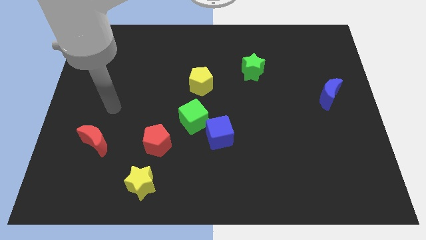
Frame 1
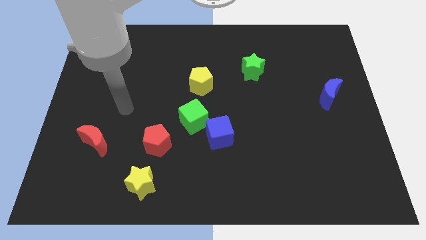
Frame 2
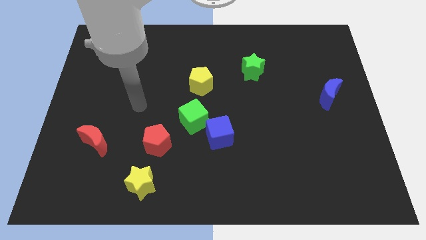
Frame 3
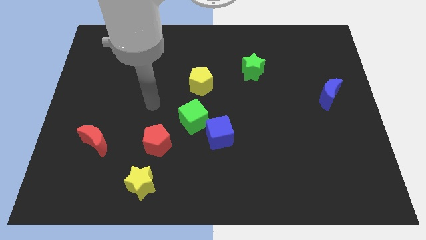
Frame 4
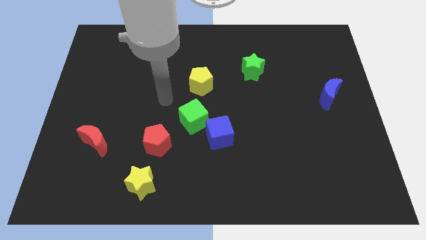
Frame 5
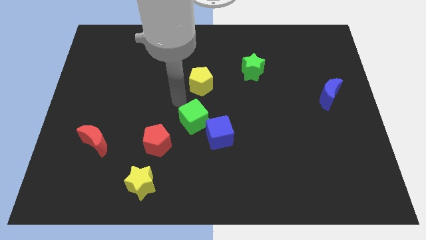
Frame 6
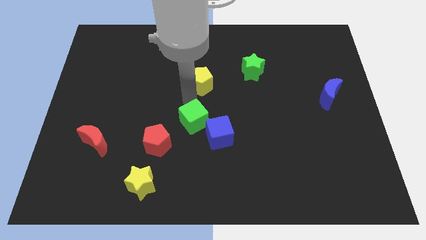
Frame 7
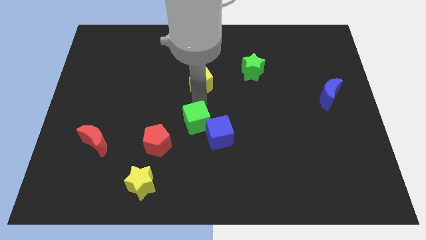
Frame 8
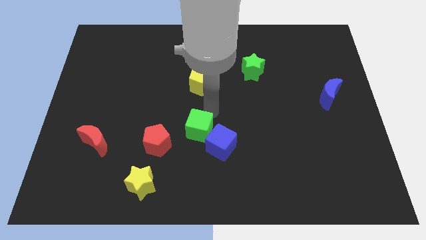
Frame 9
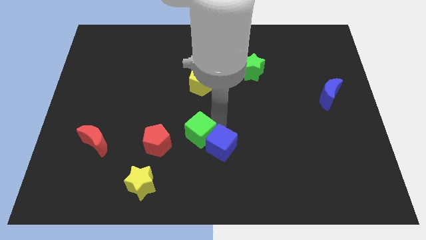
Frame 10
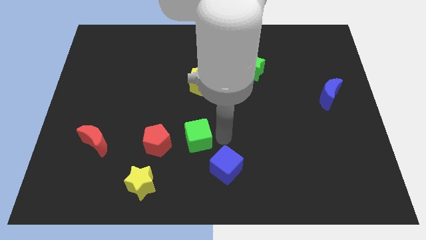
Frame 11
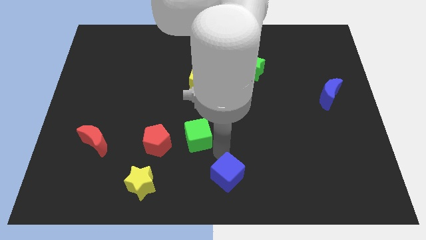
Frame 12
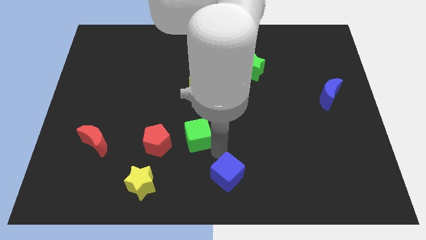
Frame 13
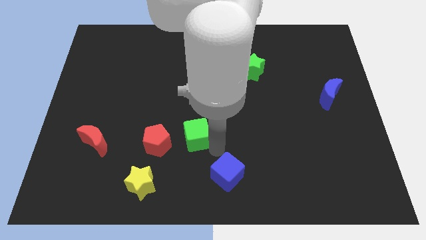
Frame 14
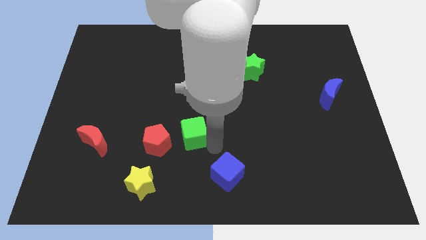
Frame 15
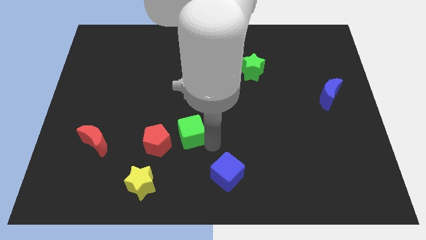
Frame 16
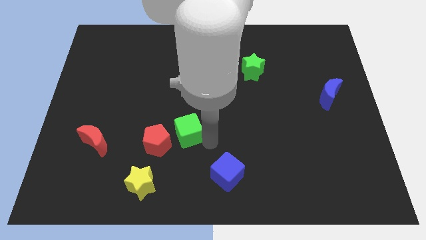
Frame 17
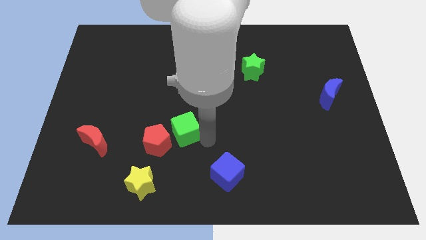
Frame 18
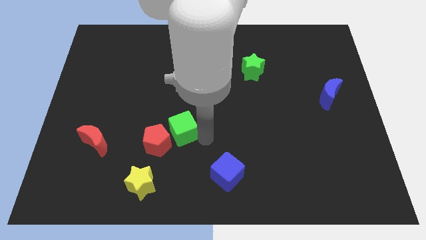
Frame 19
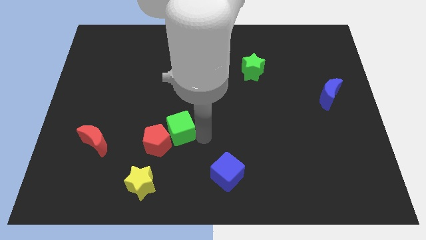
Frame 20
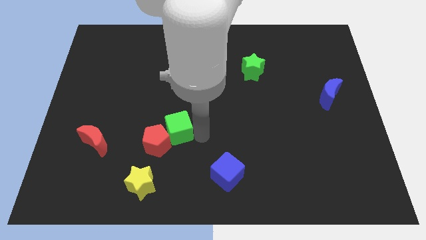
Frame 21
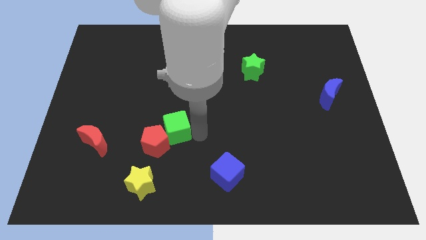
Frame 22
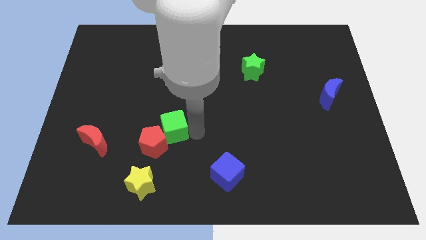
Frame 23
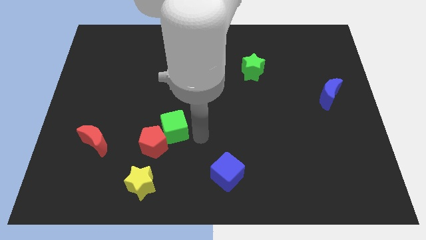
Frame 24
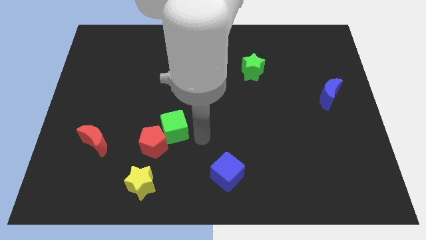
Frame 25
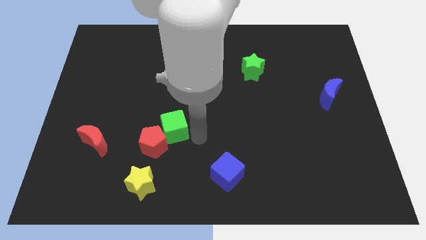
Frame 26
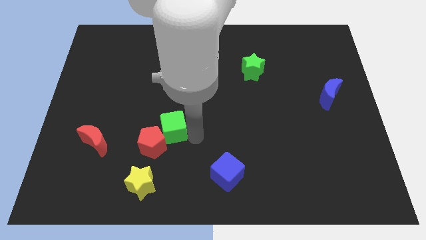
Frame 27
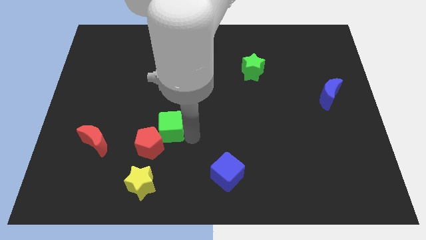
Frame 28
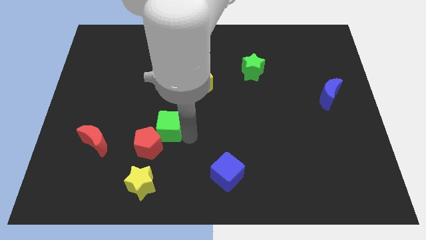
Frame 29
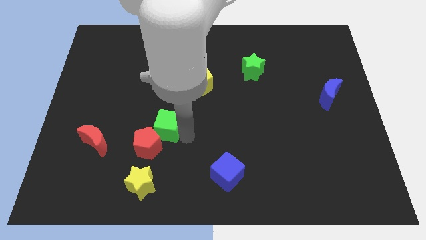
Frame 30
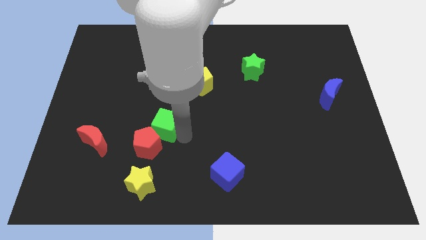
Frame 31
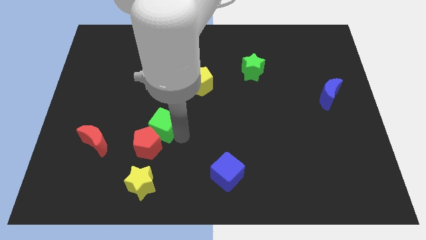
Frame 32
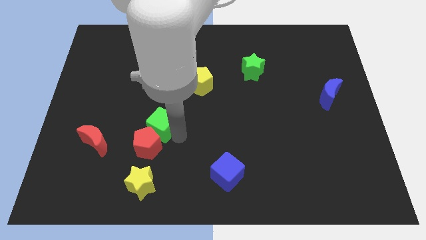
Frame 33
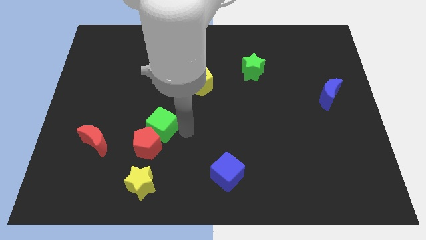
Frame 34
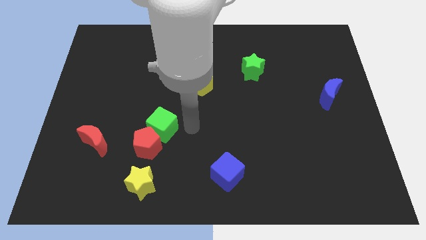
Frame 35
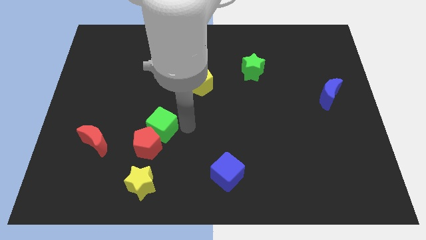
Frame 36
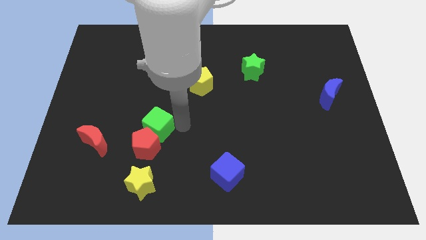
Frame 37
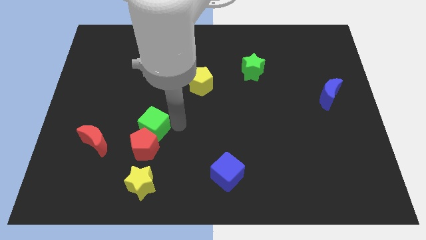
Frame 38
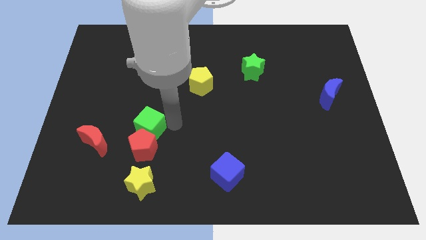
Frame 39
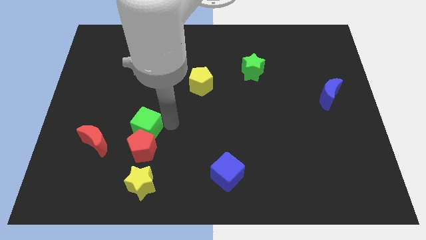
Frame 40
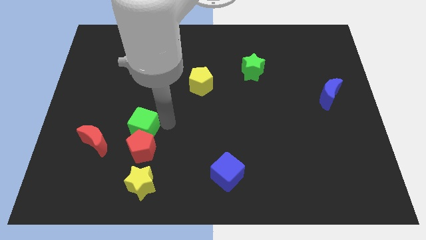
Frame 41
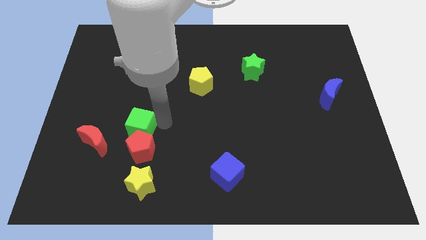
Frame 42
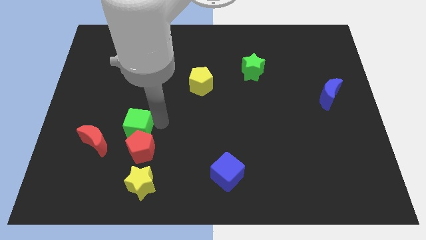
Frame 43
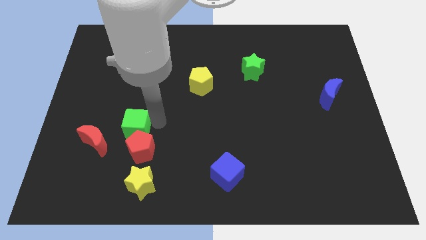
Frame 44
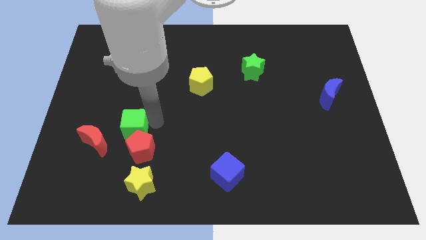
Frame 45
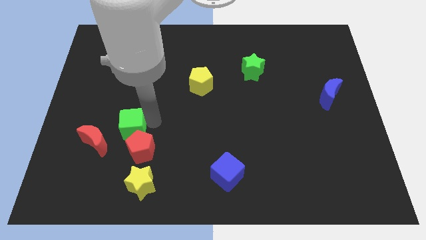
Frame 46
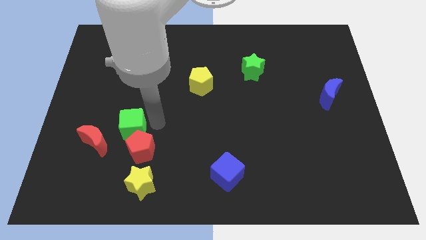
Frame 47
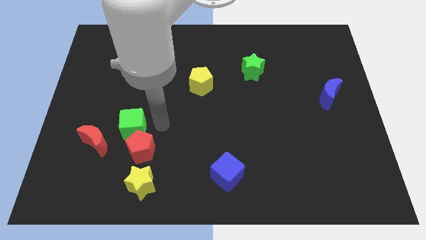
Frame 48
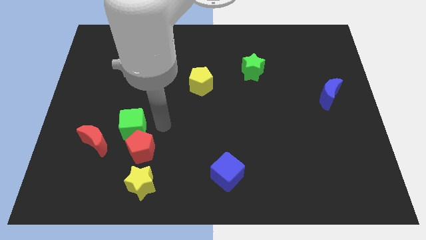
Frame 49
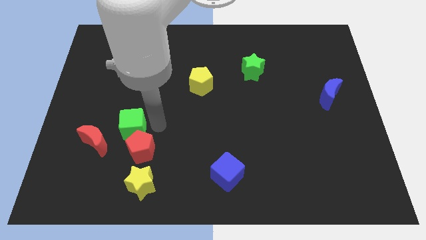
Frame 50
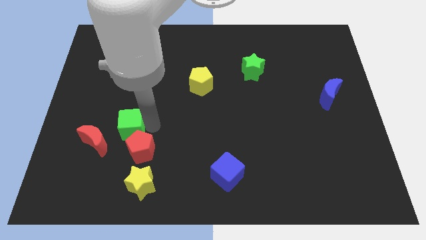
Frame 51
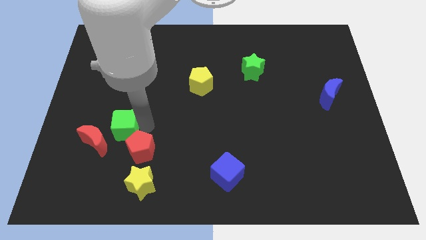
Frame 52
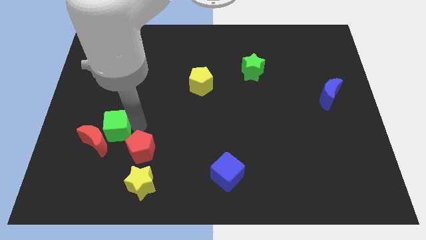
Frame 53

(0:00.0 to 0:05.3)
put the green cube towards the red moon

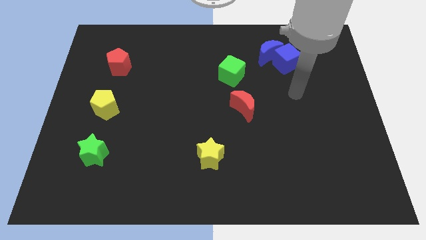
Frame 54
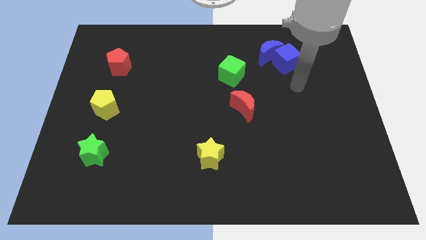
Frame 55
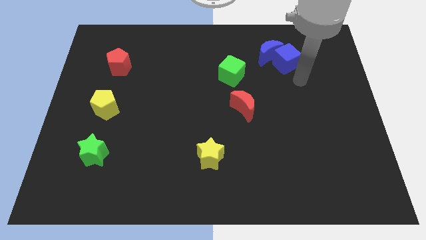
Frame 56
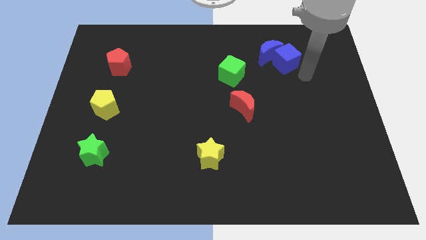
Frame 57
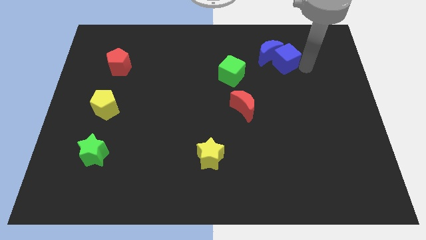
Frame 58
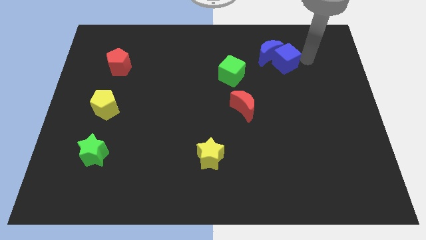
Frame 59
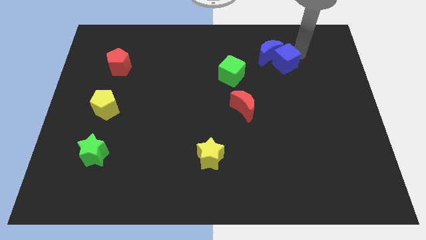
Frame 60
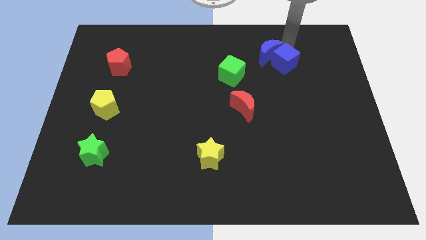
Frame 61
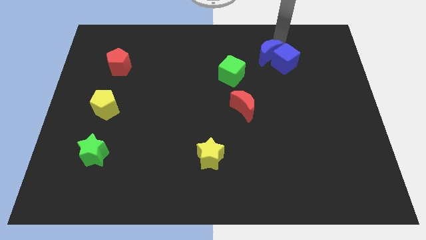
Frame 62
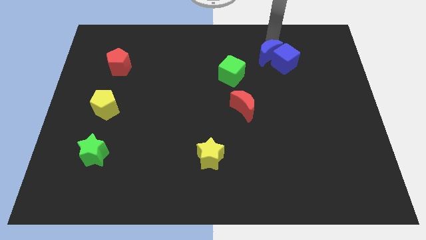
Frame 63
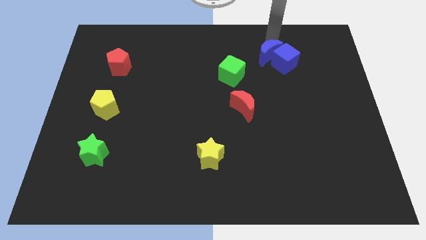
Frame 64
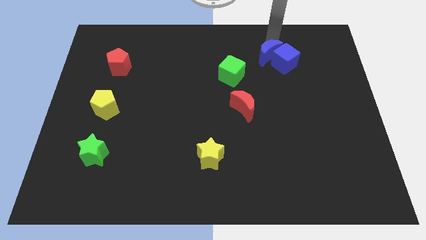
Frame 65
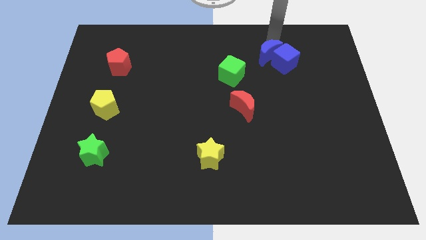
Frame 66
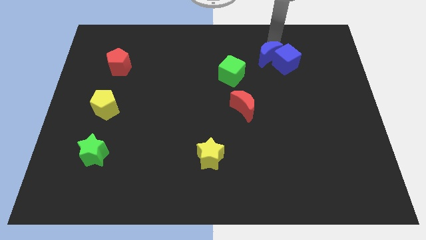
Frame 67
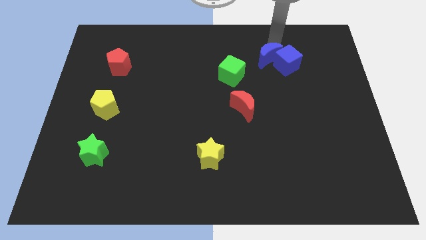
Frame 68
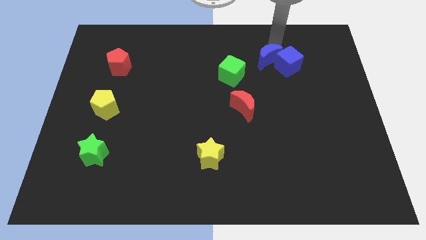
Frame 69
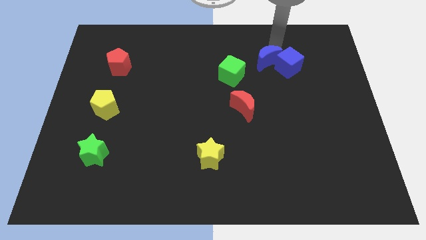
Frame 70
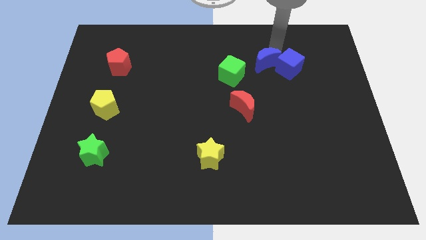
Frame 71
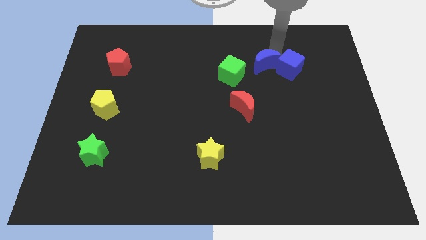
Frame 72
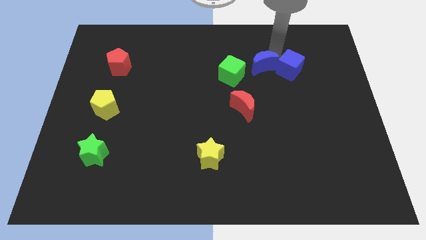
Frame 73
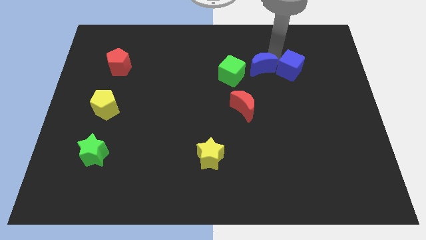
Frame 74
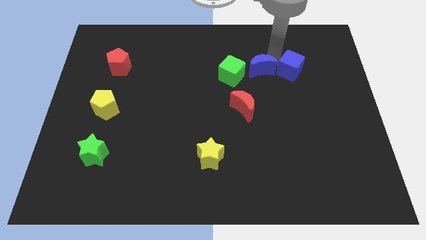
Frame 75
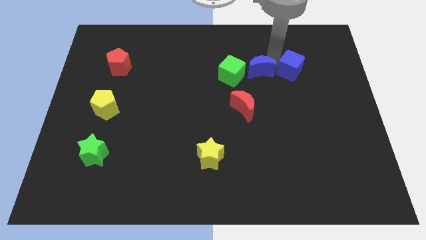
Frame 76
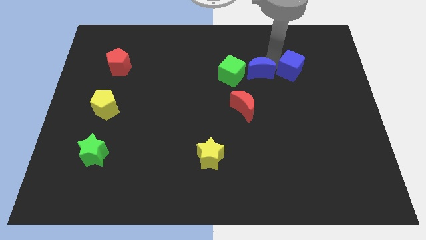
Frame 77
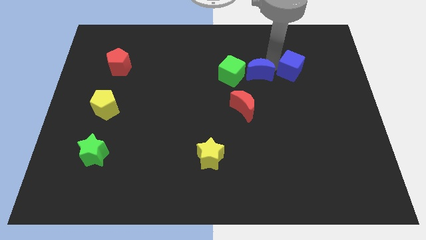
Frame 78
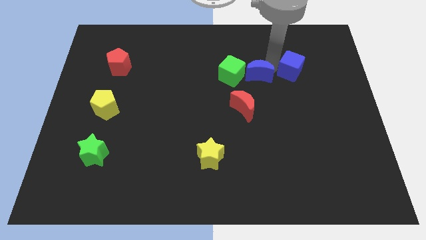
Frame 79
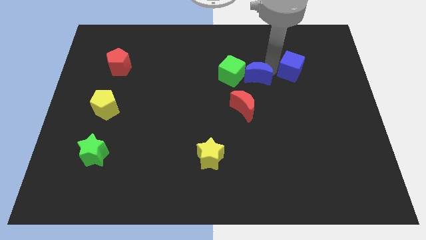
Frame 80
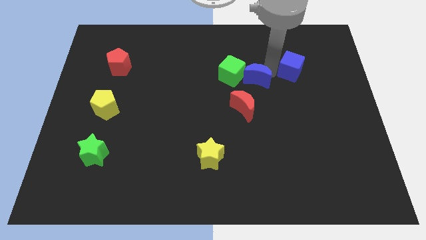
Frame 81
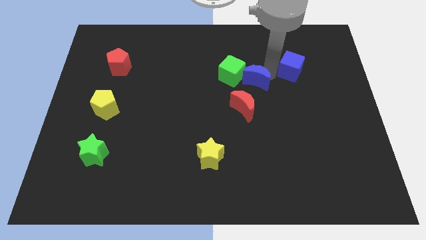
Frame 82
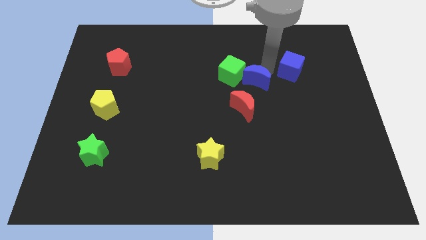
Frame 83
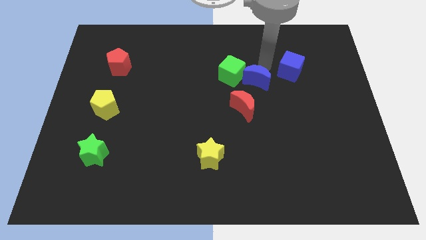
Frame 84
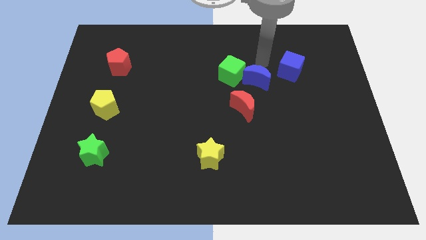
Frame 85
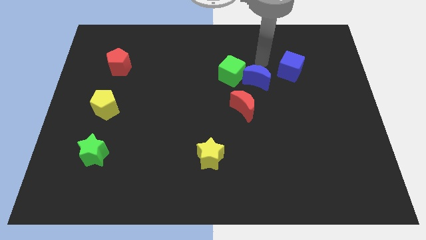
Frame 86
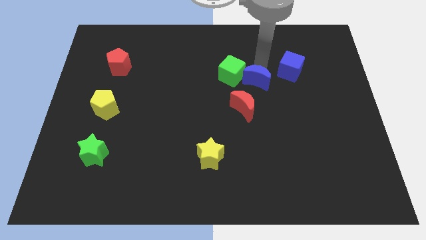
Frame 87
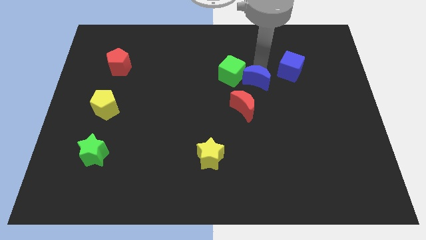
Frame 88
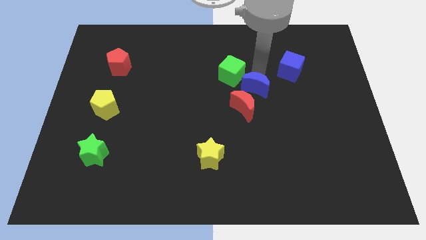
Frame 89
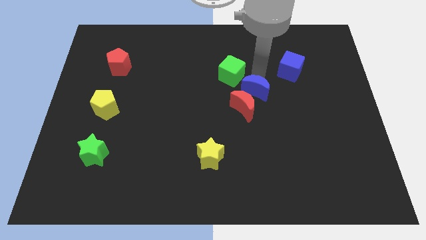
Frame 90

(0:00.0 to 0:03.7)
push the blue moon to the red moon
